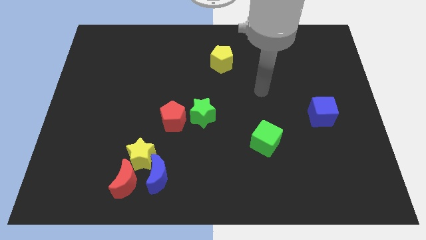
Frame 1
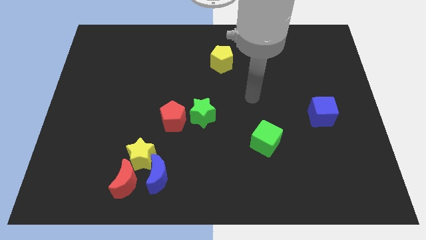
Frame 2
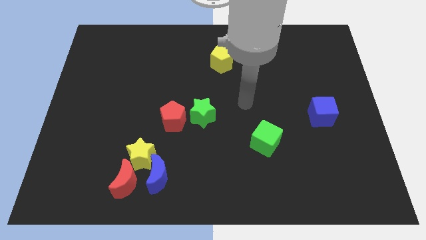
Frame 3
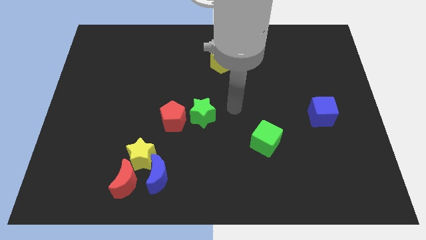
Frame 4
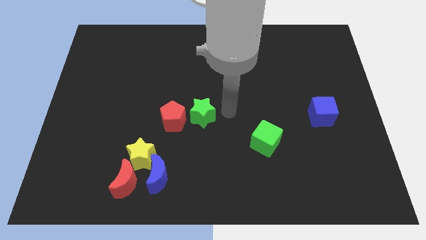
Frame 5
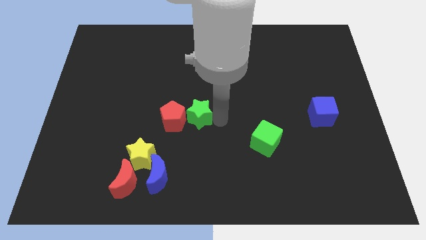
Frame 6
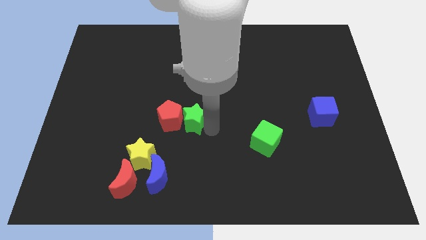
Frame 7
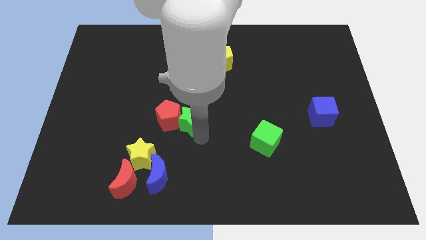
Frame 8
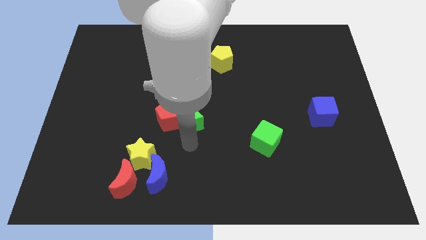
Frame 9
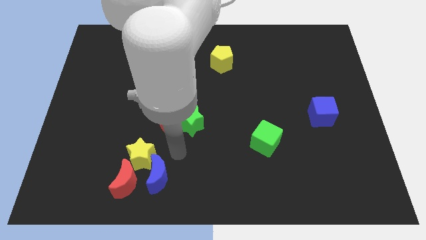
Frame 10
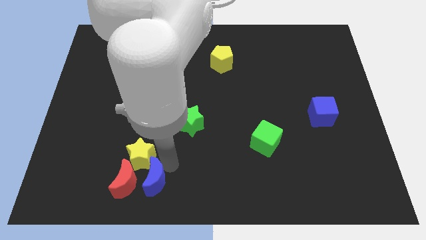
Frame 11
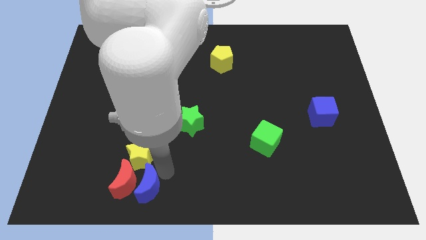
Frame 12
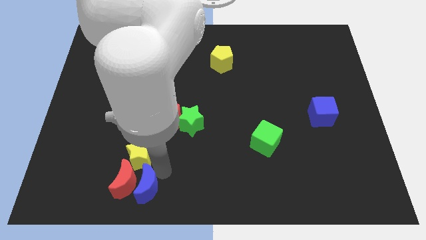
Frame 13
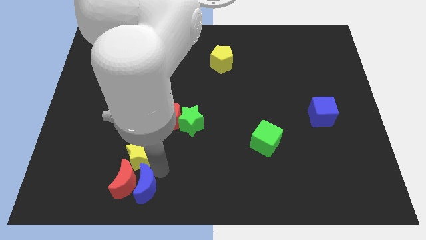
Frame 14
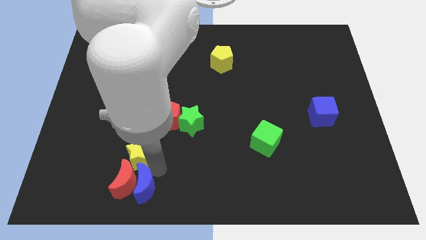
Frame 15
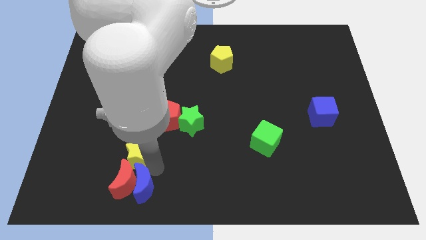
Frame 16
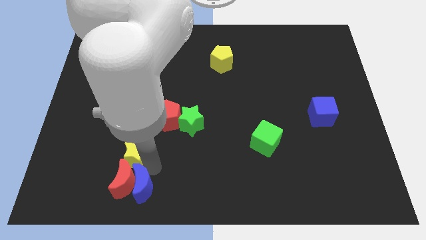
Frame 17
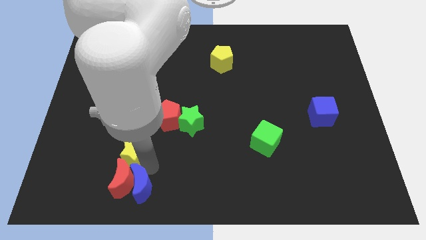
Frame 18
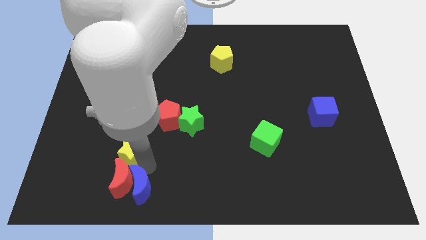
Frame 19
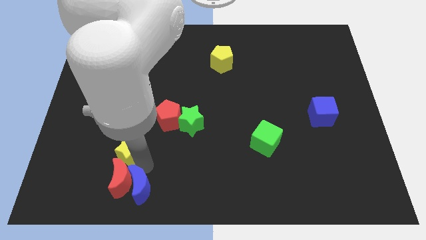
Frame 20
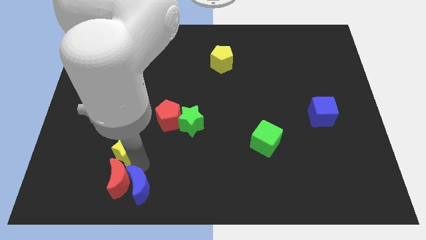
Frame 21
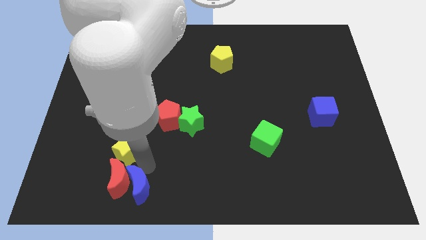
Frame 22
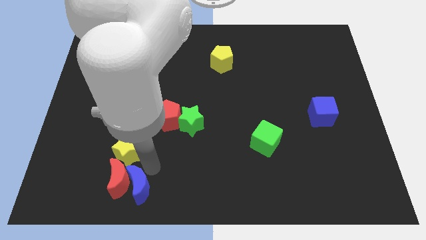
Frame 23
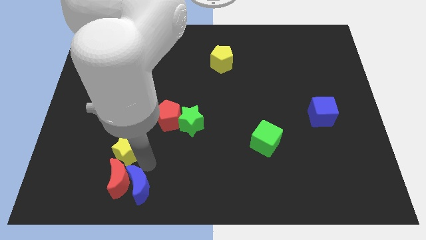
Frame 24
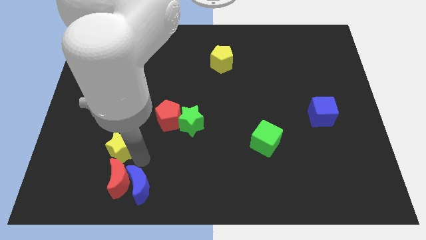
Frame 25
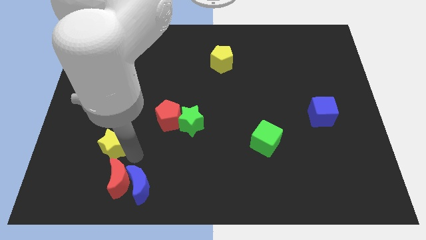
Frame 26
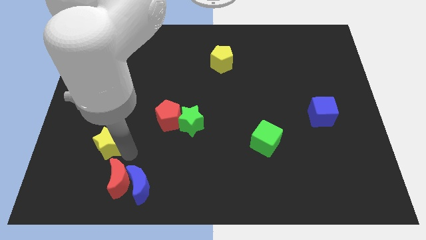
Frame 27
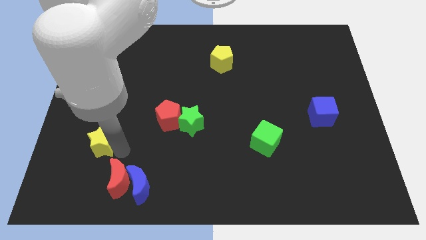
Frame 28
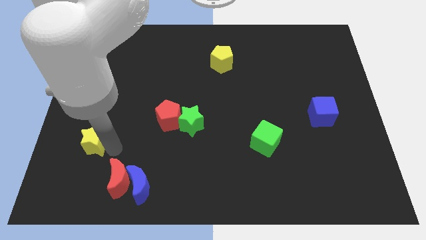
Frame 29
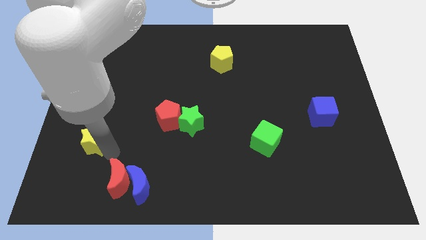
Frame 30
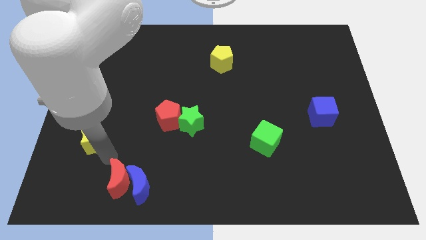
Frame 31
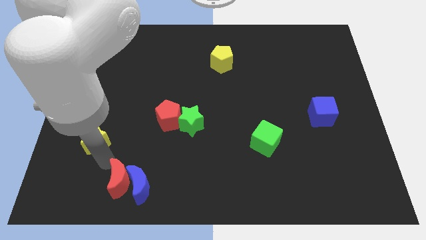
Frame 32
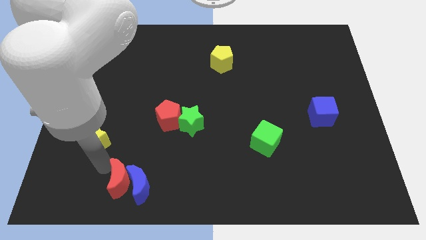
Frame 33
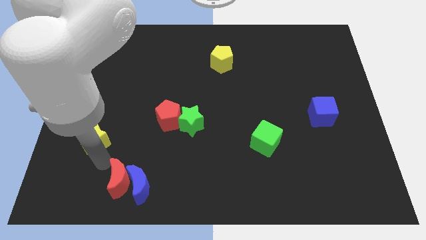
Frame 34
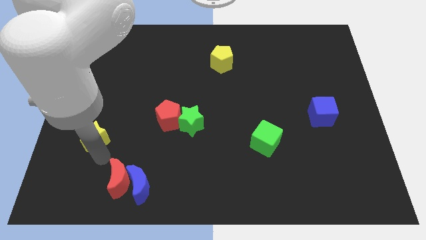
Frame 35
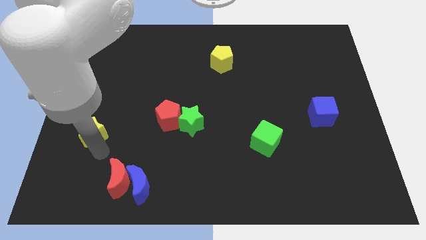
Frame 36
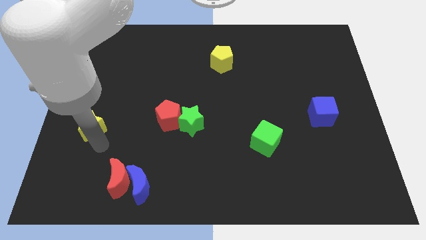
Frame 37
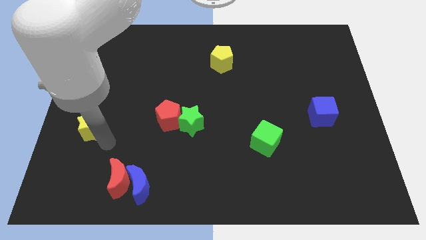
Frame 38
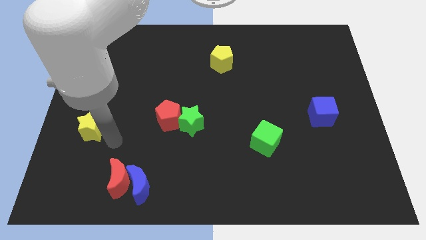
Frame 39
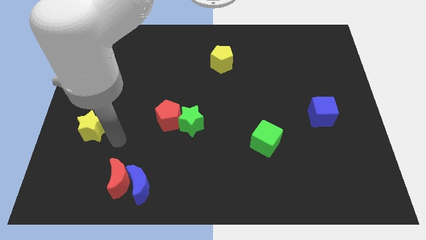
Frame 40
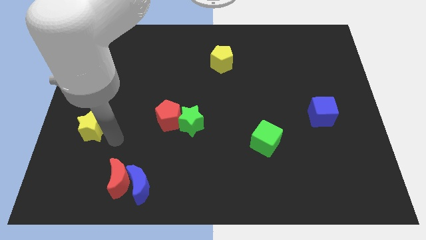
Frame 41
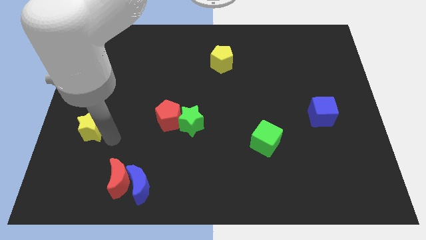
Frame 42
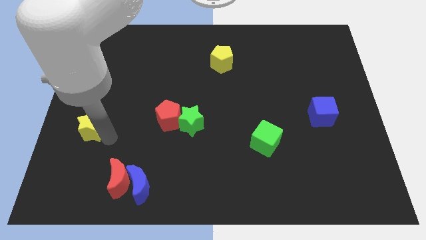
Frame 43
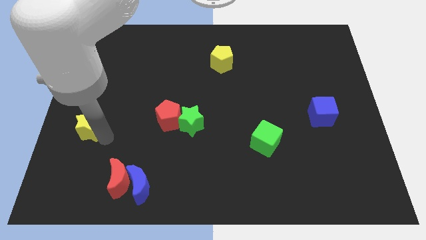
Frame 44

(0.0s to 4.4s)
move the yellow star to the left side

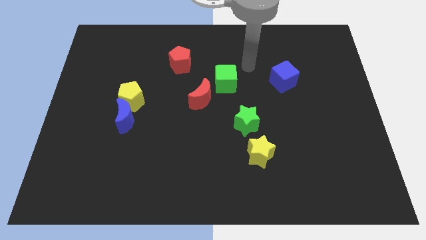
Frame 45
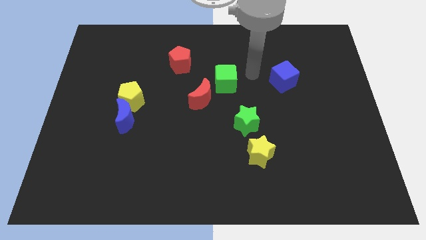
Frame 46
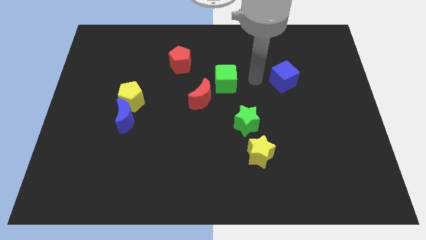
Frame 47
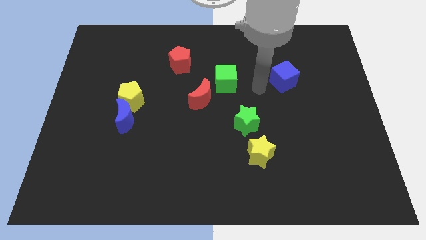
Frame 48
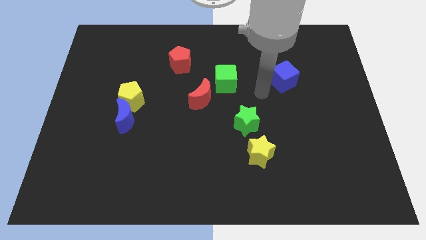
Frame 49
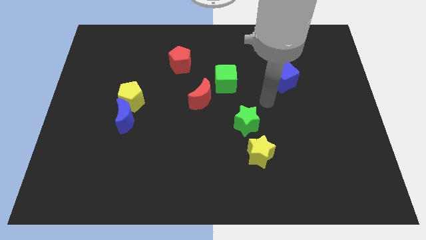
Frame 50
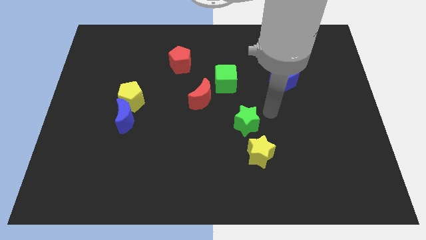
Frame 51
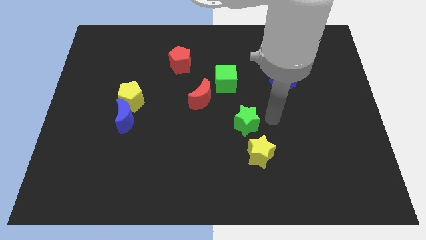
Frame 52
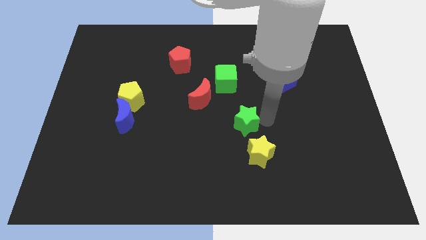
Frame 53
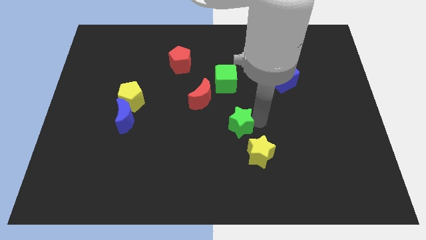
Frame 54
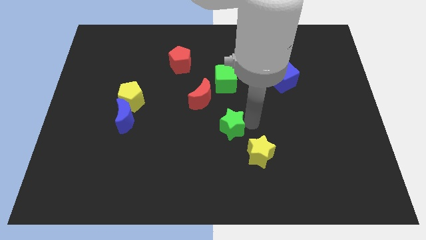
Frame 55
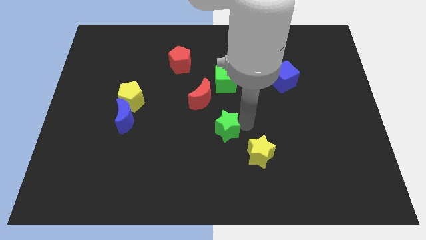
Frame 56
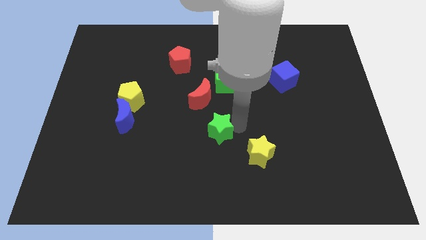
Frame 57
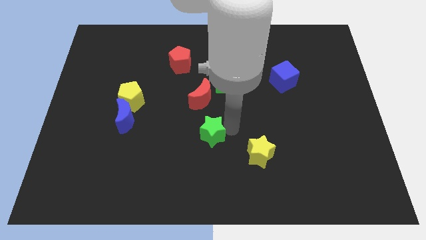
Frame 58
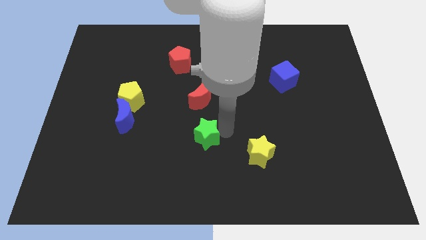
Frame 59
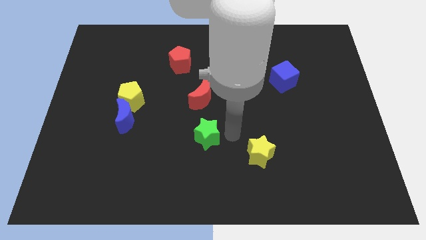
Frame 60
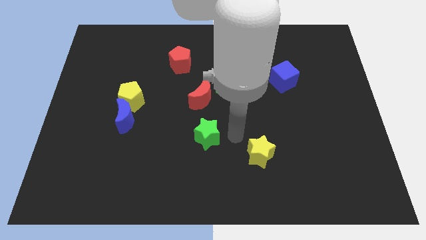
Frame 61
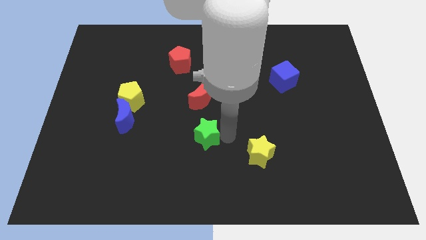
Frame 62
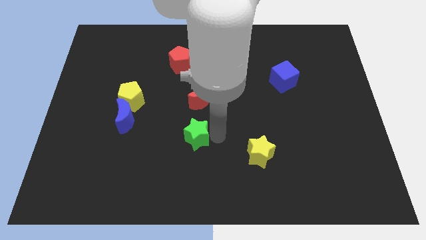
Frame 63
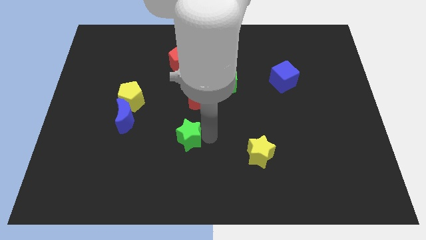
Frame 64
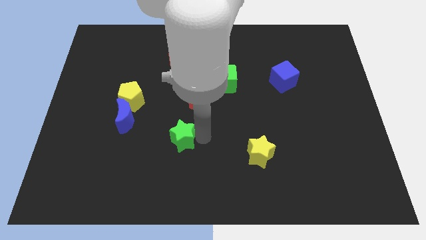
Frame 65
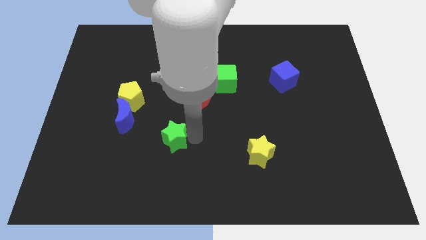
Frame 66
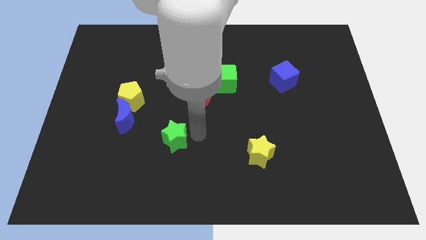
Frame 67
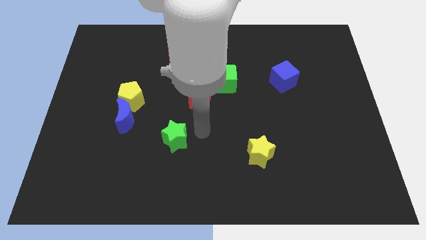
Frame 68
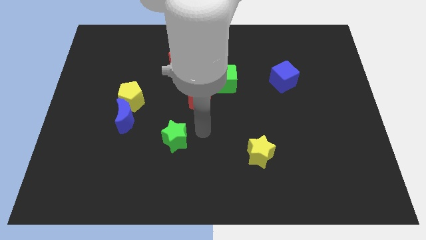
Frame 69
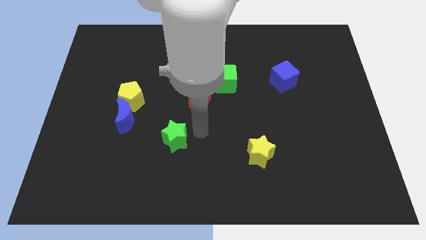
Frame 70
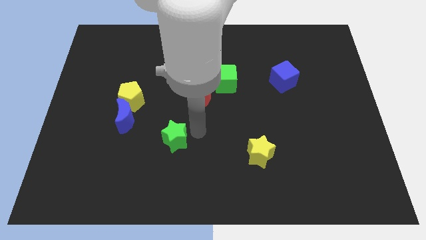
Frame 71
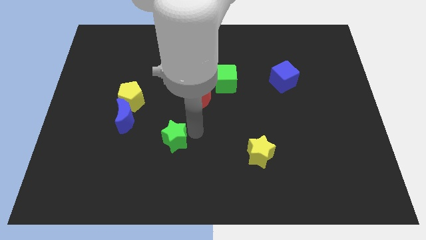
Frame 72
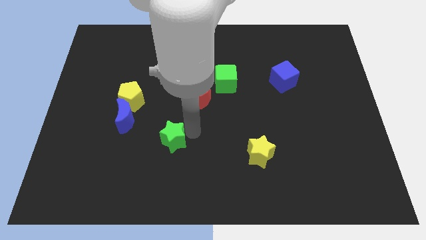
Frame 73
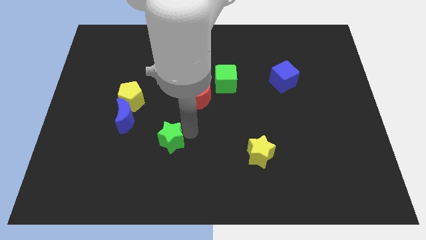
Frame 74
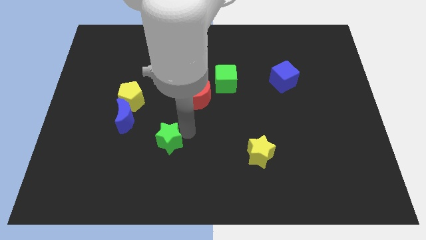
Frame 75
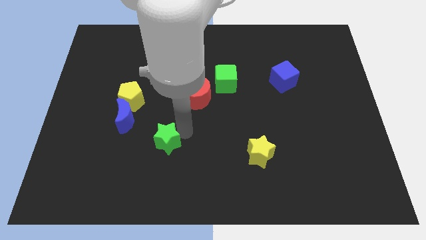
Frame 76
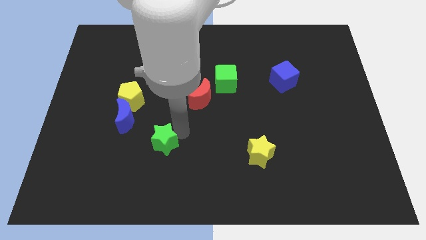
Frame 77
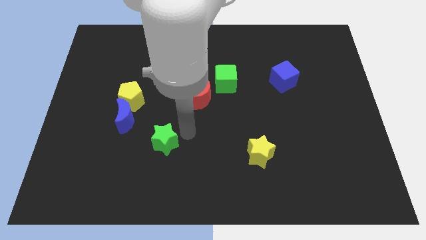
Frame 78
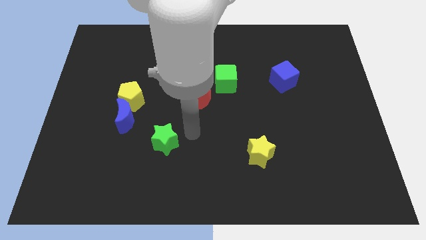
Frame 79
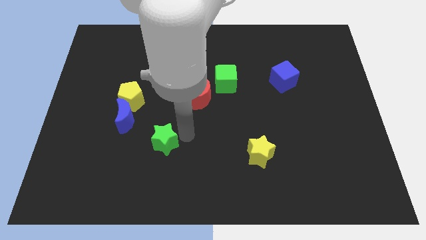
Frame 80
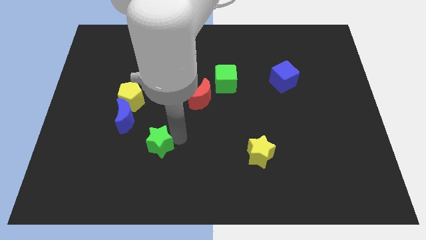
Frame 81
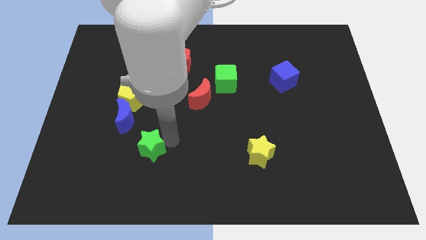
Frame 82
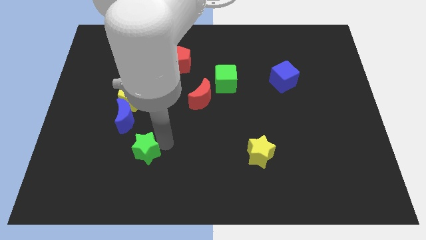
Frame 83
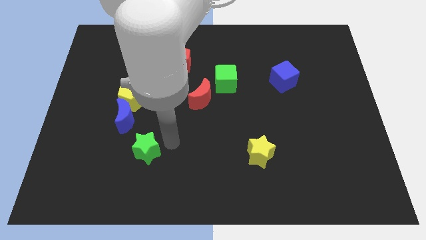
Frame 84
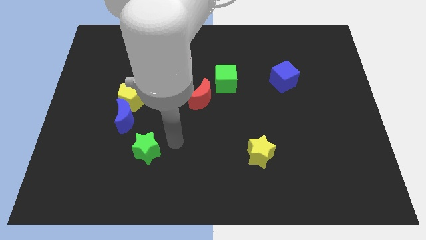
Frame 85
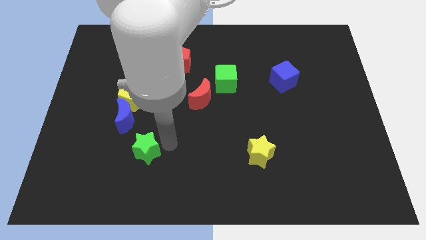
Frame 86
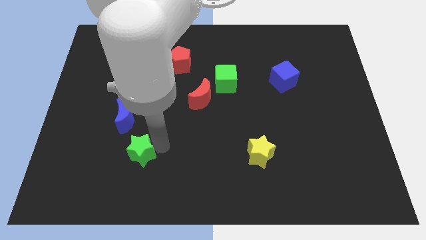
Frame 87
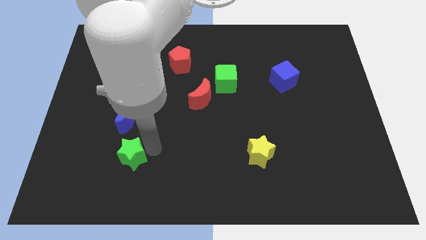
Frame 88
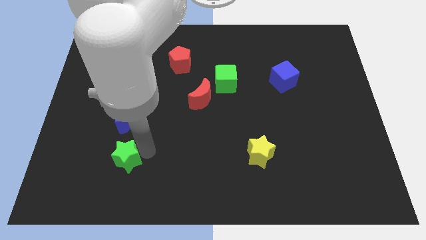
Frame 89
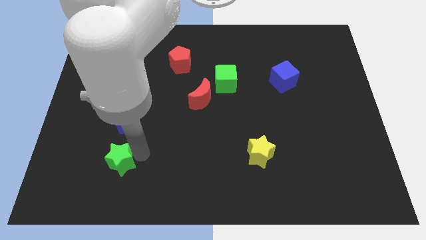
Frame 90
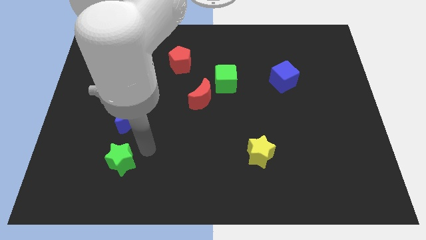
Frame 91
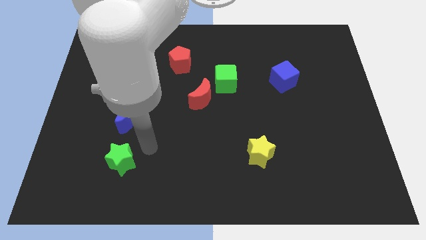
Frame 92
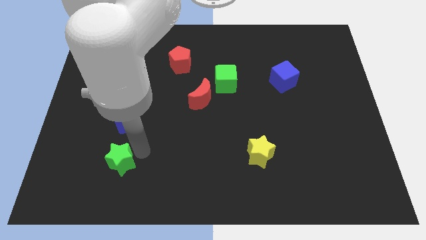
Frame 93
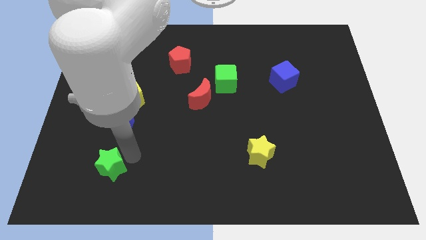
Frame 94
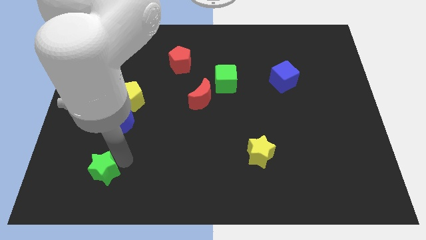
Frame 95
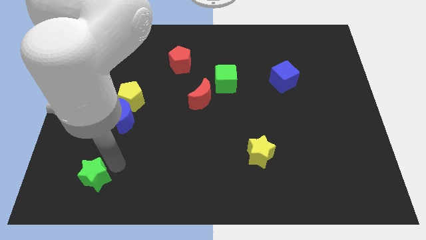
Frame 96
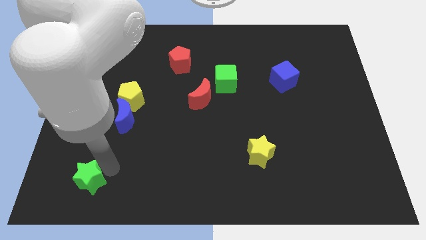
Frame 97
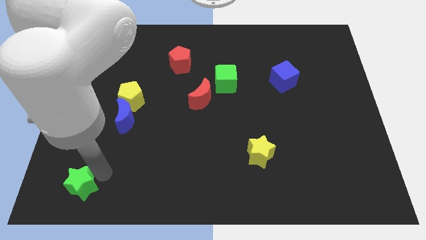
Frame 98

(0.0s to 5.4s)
push the green star to the bottom left
